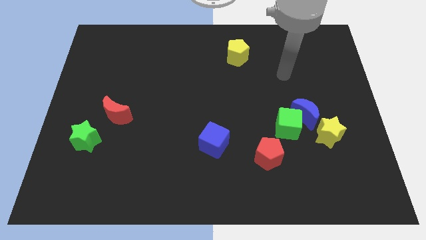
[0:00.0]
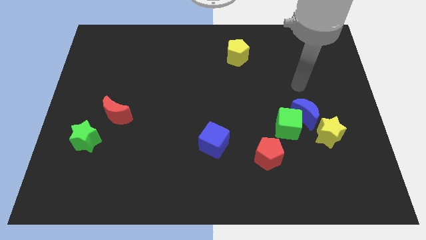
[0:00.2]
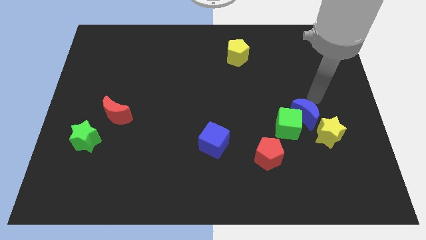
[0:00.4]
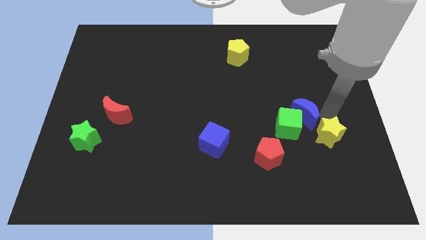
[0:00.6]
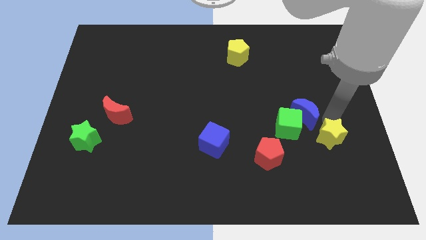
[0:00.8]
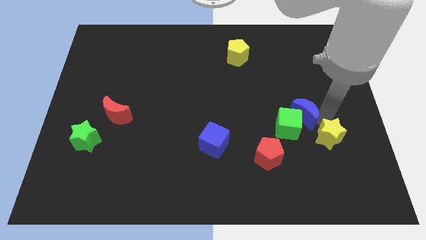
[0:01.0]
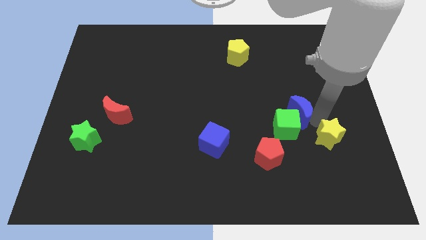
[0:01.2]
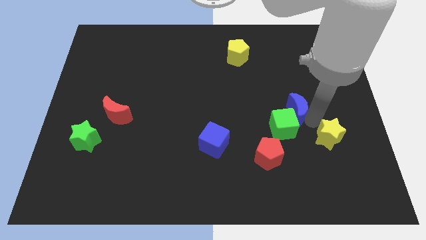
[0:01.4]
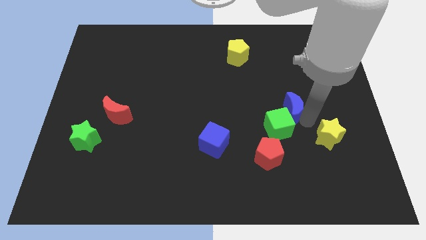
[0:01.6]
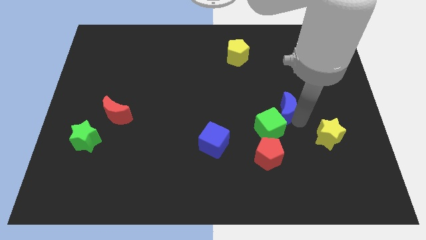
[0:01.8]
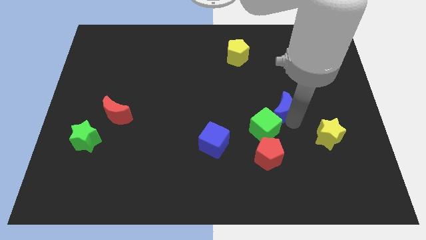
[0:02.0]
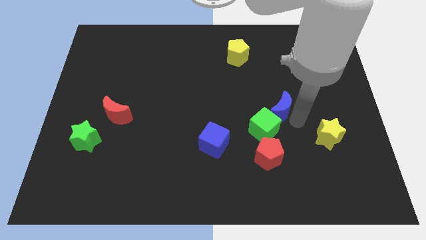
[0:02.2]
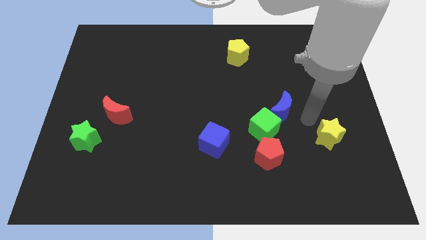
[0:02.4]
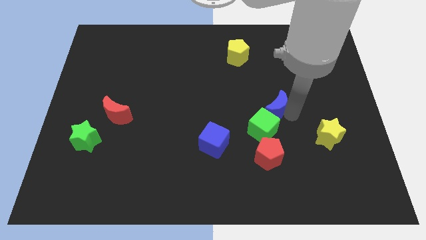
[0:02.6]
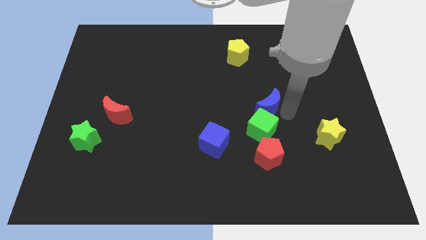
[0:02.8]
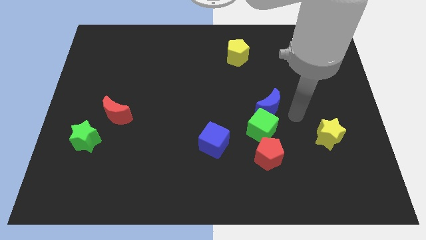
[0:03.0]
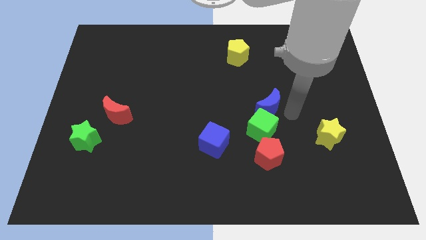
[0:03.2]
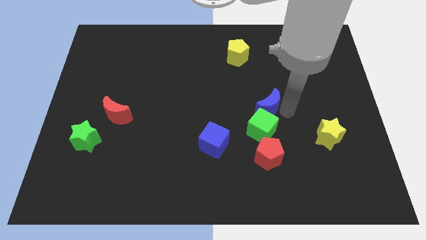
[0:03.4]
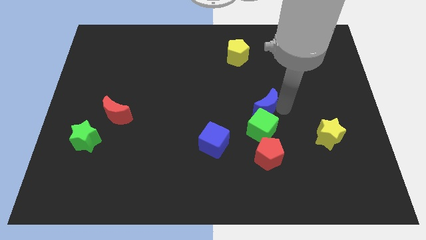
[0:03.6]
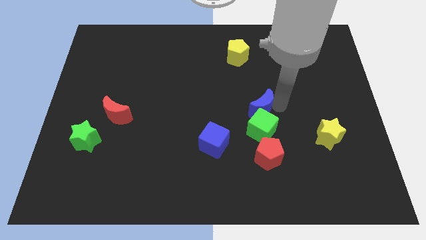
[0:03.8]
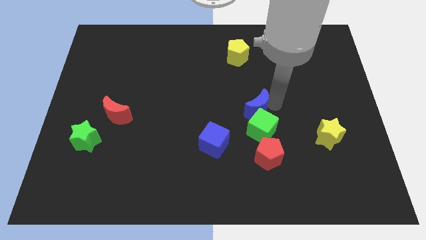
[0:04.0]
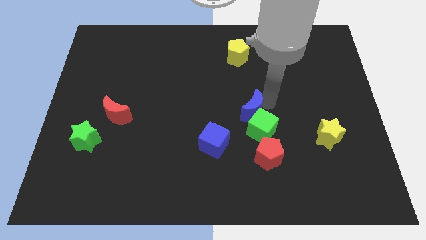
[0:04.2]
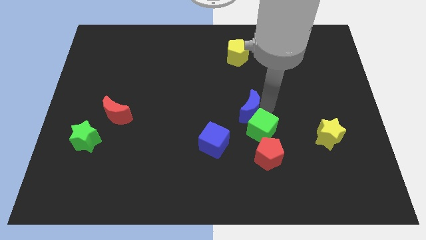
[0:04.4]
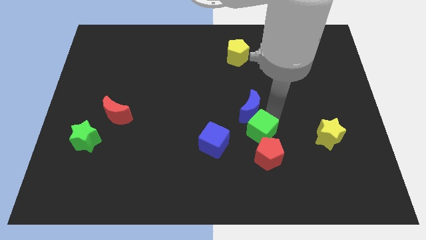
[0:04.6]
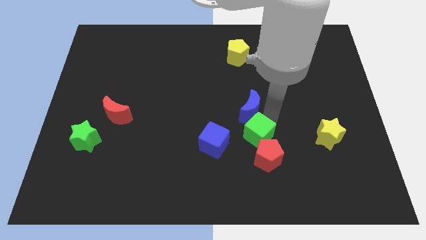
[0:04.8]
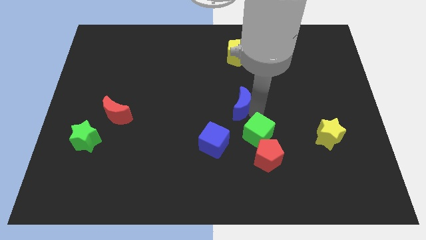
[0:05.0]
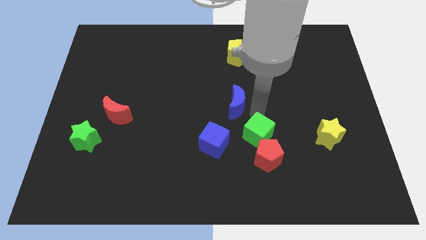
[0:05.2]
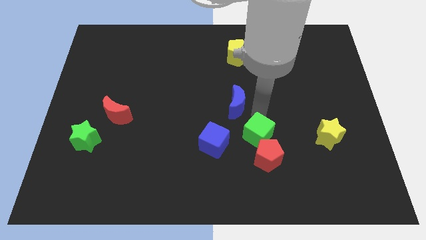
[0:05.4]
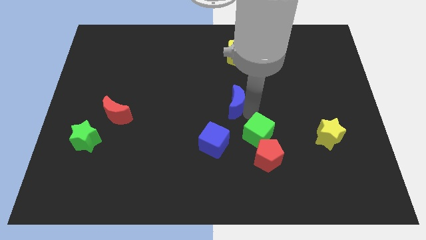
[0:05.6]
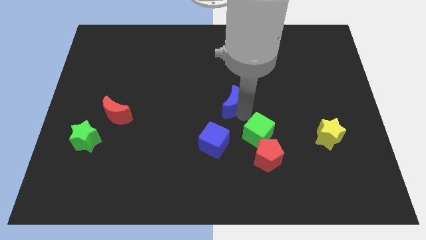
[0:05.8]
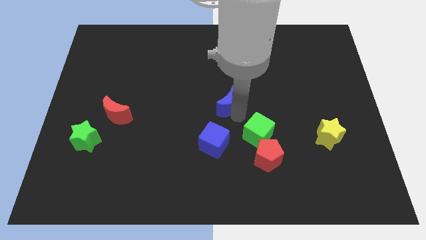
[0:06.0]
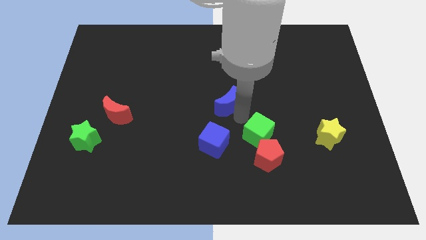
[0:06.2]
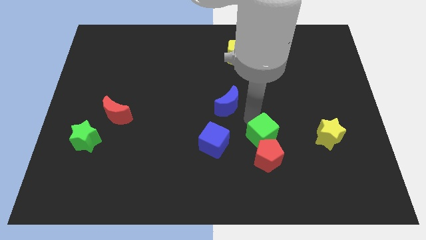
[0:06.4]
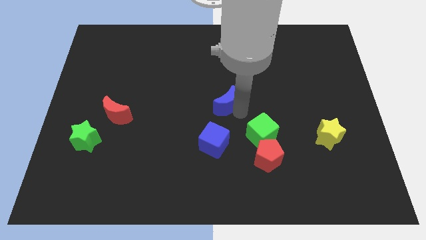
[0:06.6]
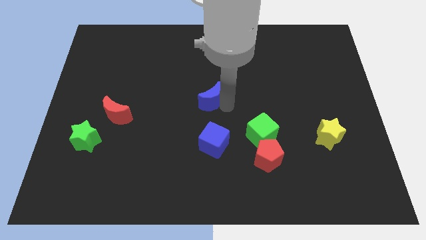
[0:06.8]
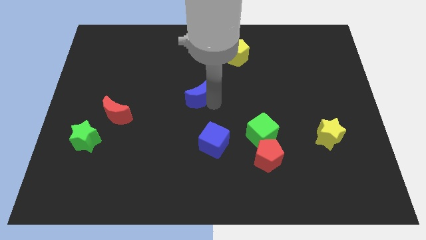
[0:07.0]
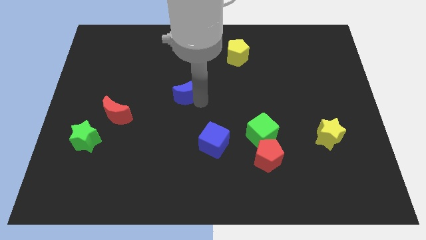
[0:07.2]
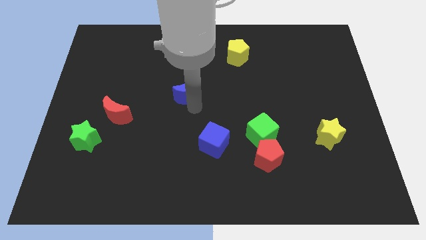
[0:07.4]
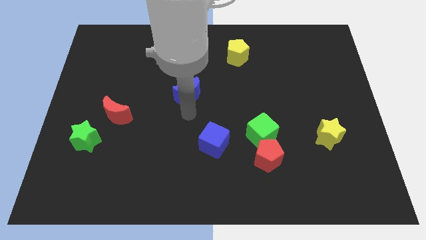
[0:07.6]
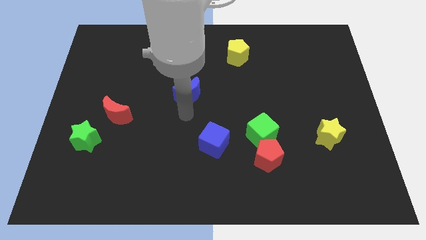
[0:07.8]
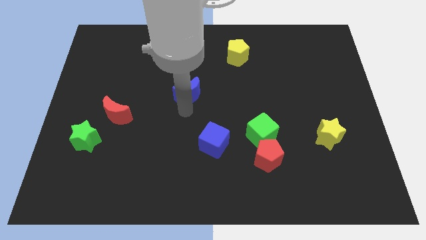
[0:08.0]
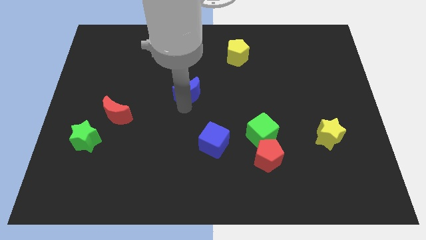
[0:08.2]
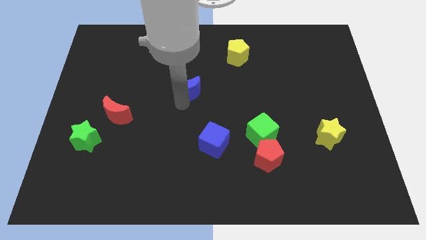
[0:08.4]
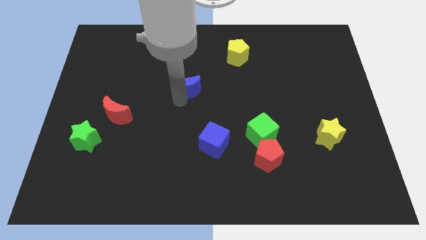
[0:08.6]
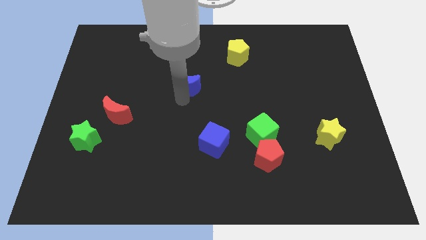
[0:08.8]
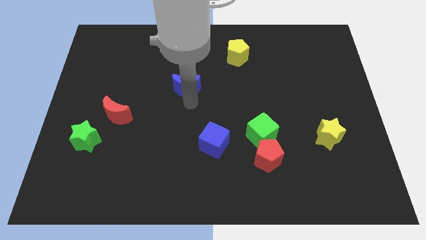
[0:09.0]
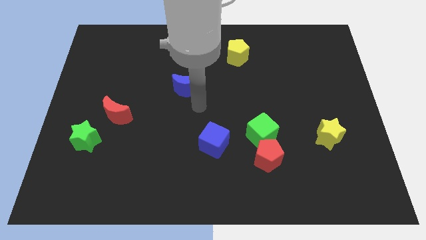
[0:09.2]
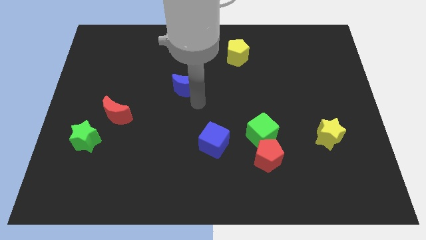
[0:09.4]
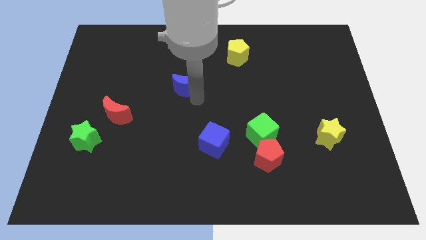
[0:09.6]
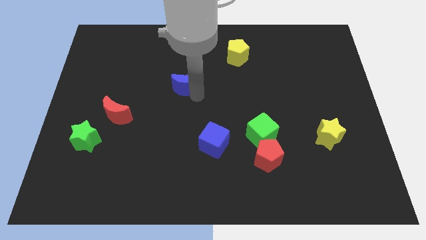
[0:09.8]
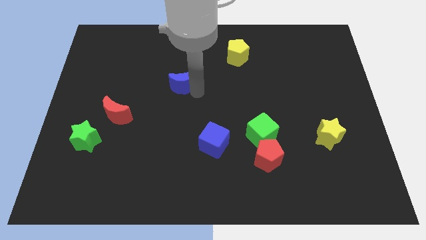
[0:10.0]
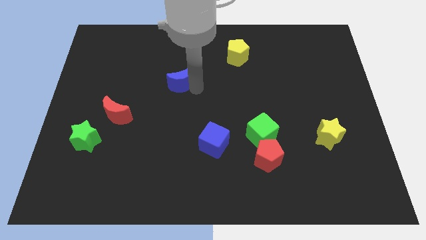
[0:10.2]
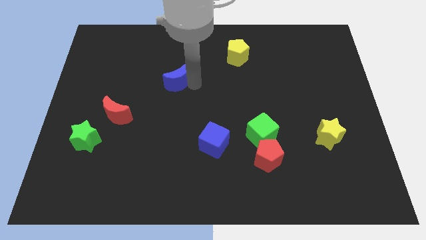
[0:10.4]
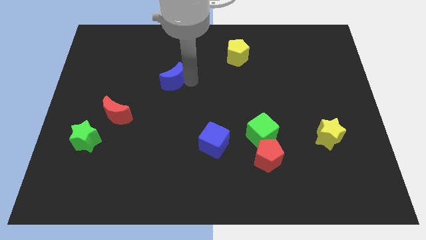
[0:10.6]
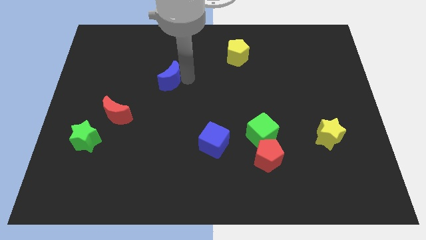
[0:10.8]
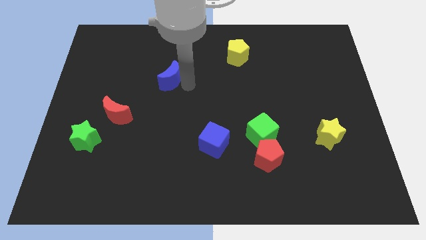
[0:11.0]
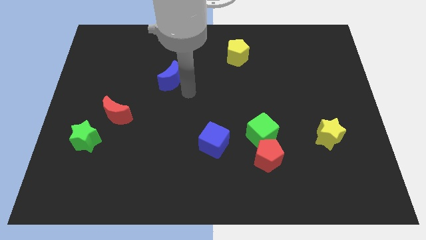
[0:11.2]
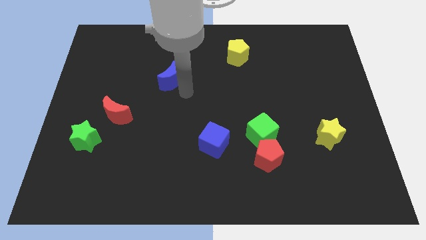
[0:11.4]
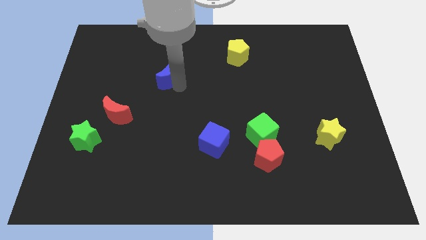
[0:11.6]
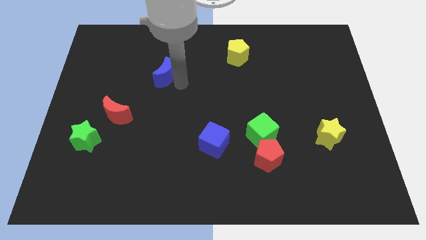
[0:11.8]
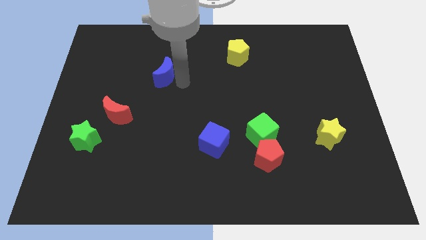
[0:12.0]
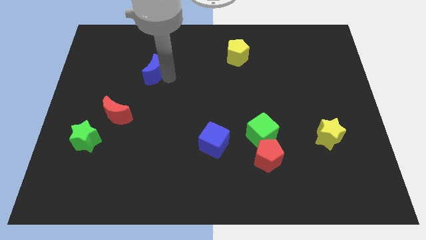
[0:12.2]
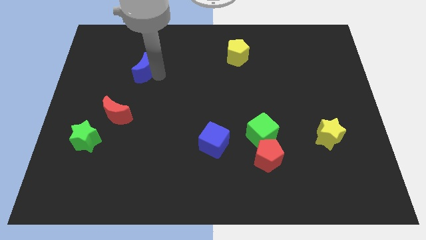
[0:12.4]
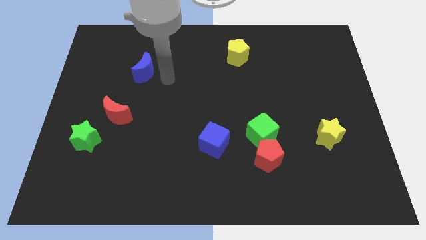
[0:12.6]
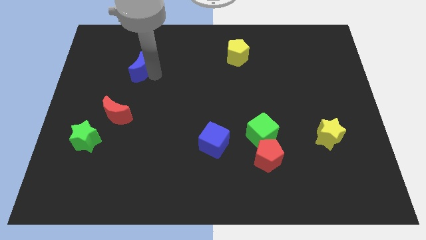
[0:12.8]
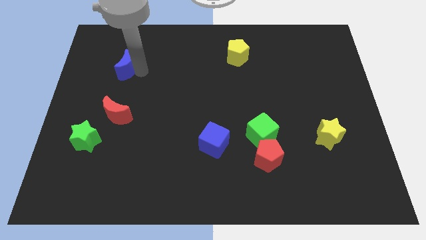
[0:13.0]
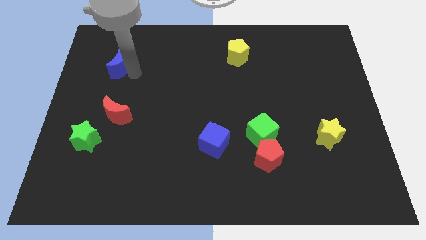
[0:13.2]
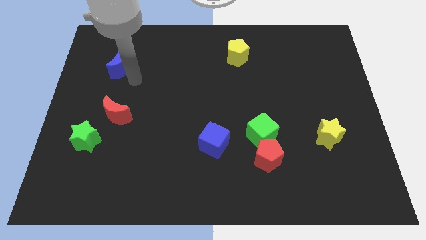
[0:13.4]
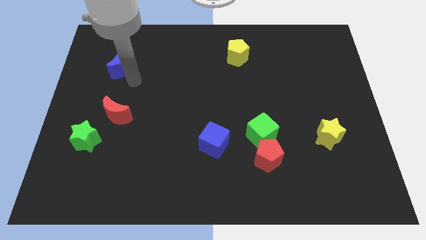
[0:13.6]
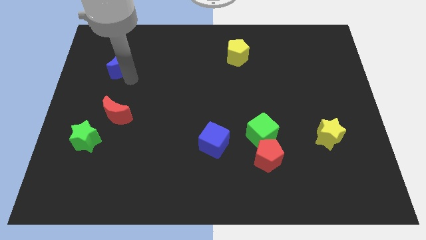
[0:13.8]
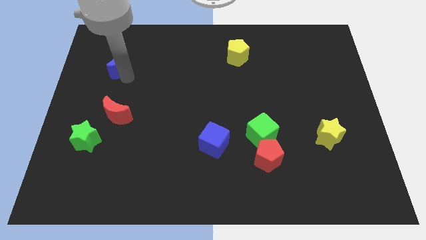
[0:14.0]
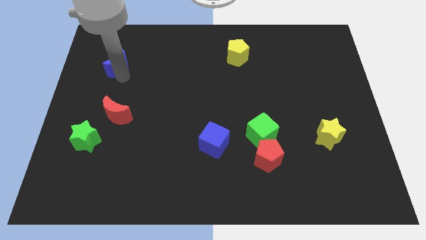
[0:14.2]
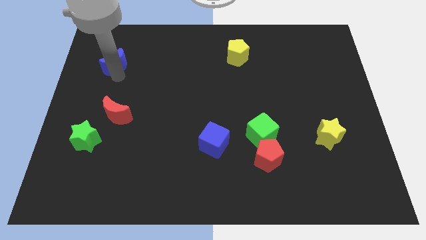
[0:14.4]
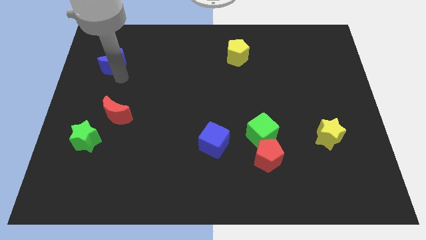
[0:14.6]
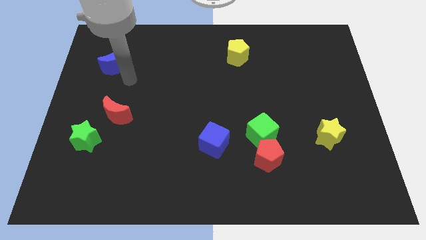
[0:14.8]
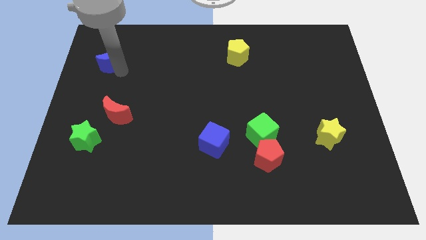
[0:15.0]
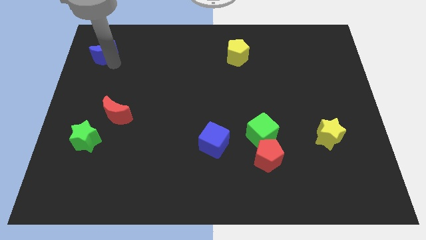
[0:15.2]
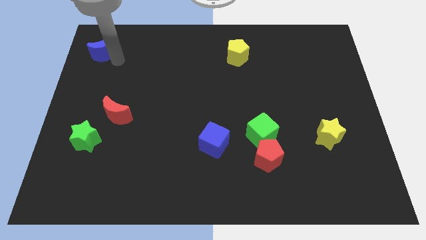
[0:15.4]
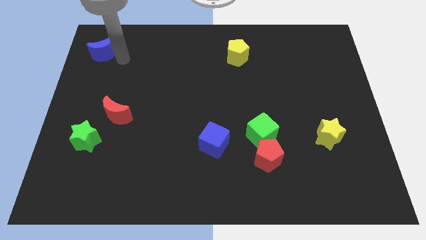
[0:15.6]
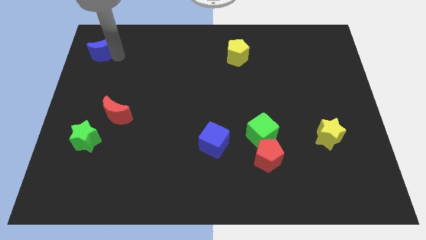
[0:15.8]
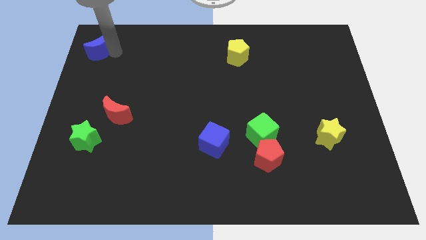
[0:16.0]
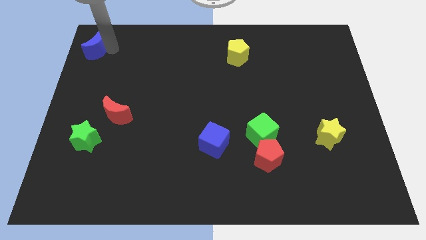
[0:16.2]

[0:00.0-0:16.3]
push the blue moon to the top left of the board
